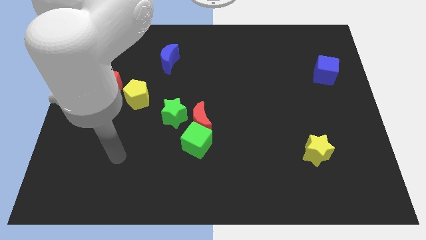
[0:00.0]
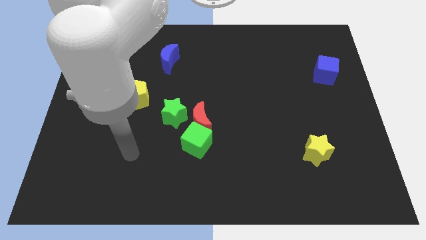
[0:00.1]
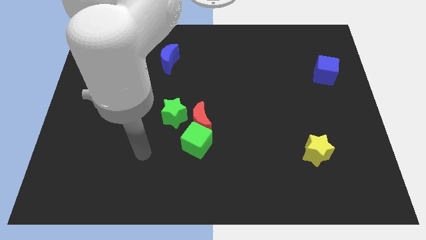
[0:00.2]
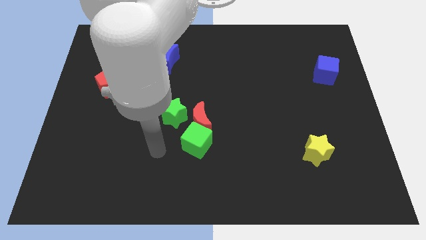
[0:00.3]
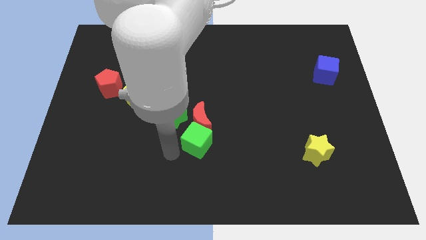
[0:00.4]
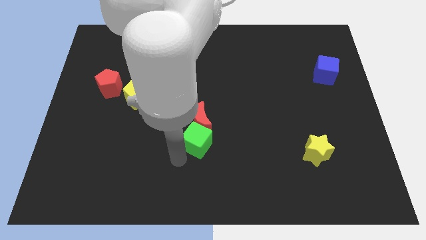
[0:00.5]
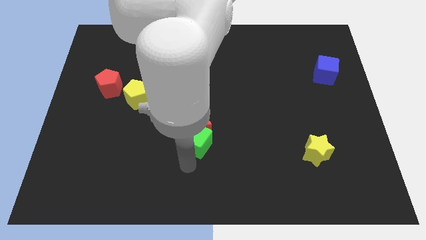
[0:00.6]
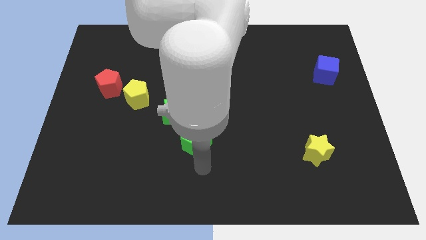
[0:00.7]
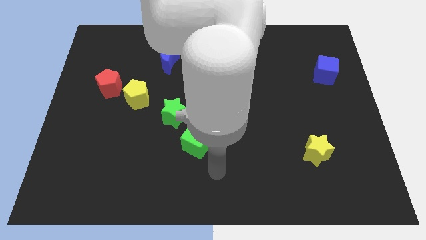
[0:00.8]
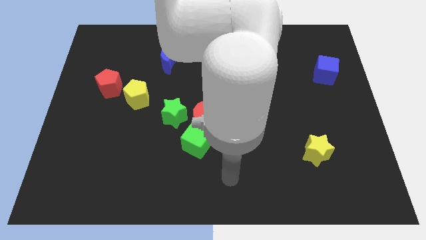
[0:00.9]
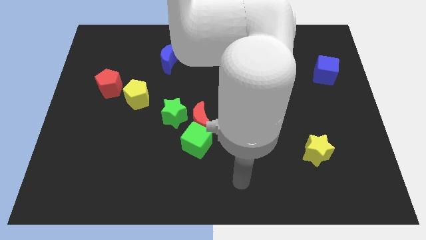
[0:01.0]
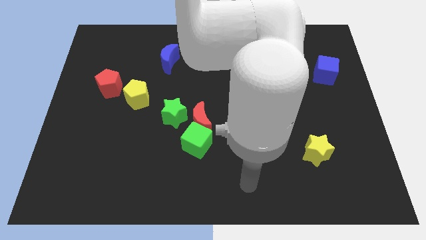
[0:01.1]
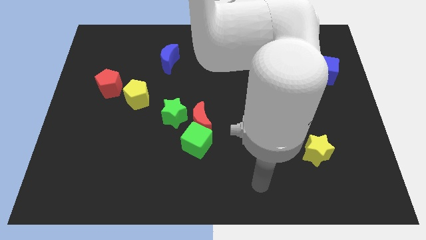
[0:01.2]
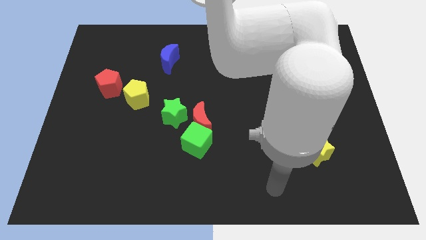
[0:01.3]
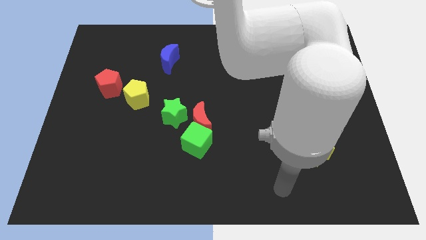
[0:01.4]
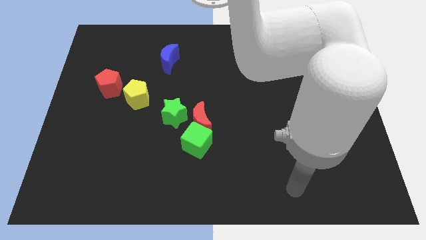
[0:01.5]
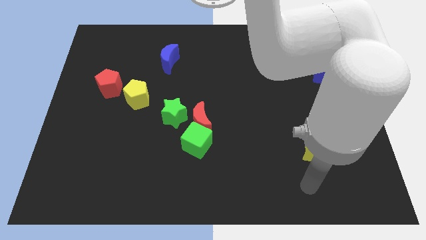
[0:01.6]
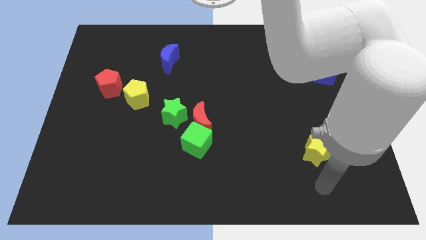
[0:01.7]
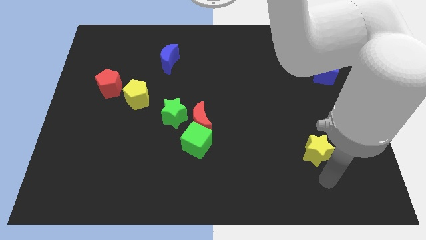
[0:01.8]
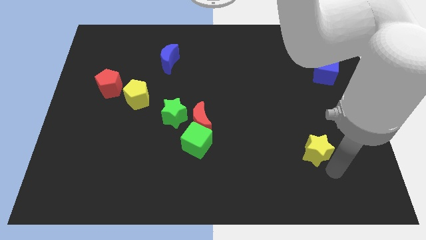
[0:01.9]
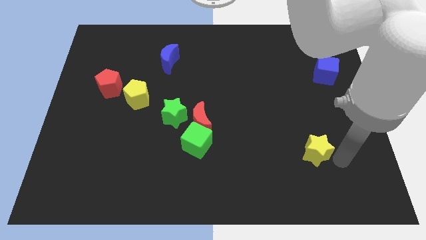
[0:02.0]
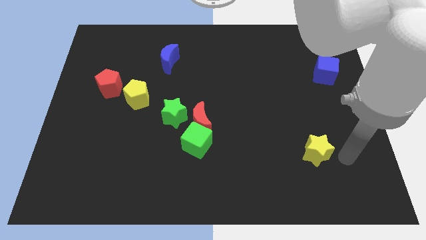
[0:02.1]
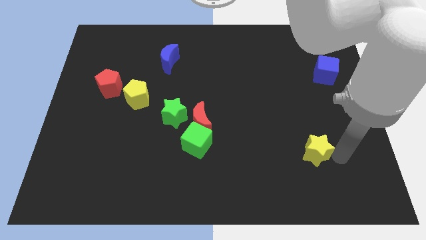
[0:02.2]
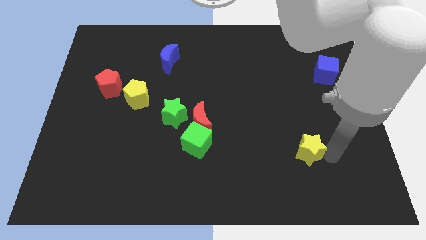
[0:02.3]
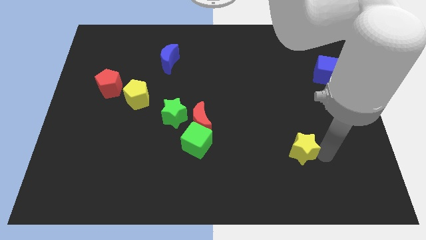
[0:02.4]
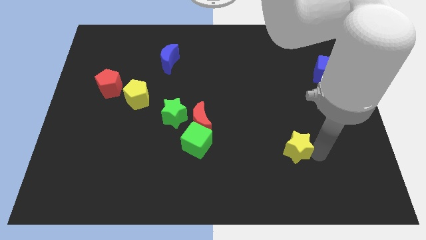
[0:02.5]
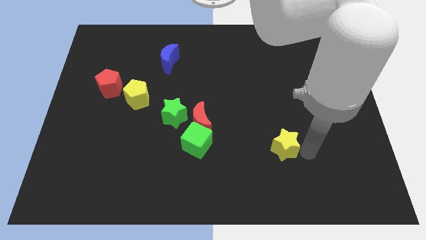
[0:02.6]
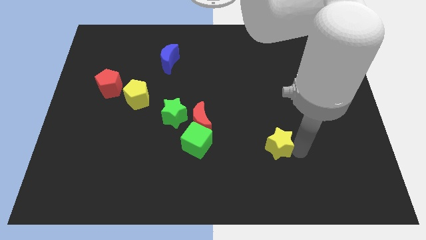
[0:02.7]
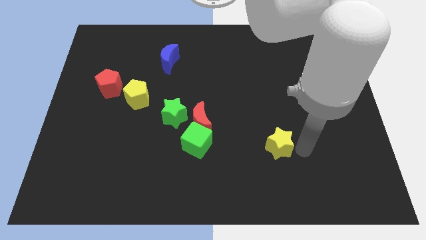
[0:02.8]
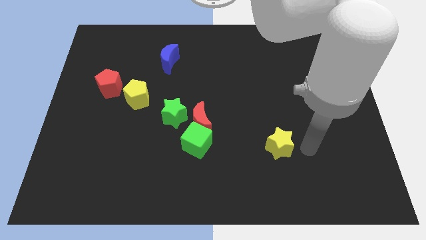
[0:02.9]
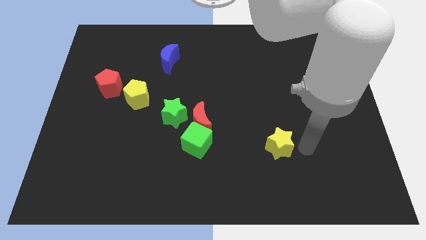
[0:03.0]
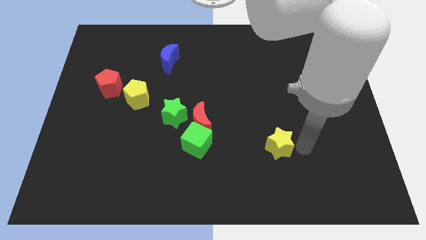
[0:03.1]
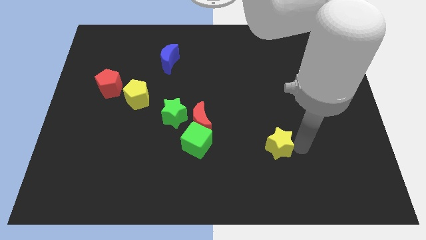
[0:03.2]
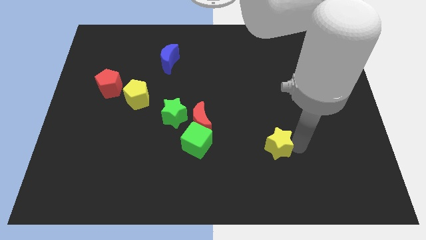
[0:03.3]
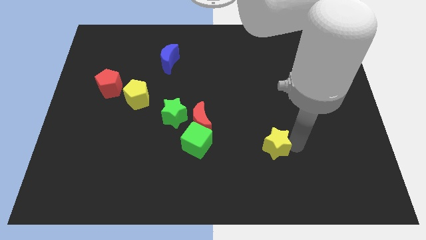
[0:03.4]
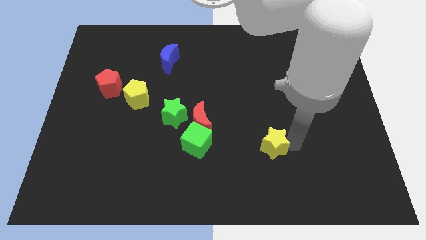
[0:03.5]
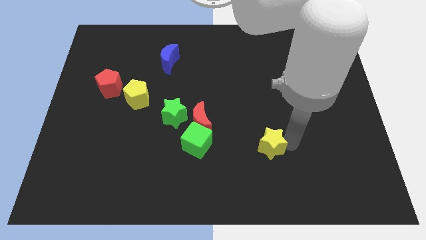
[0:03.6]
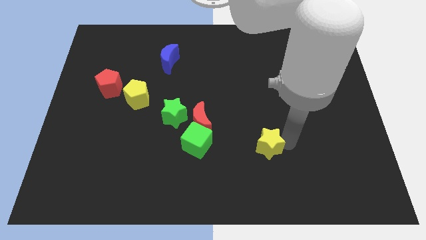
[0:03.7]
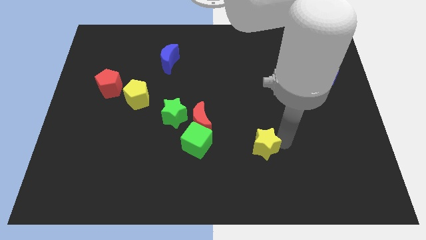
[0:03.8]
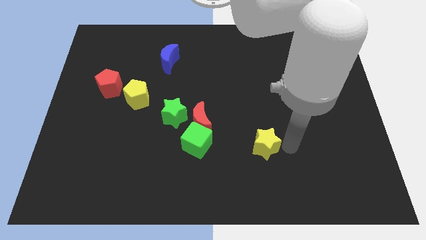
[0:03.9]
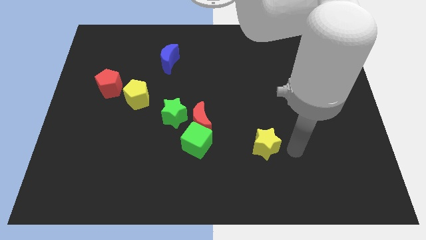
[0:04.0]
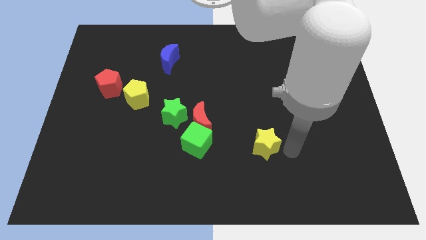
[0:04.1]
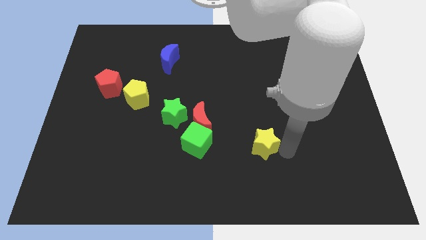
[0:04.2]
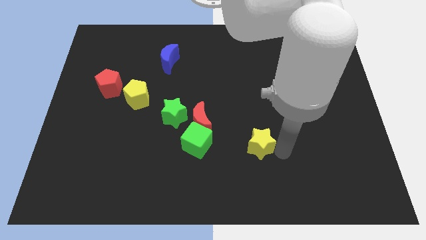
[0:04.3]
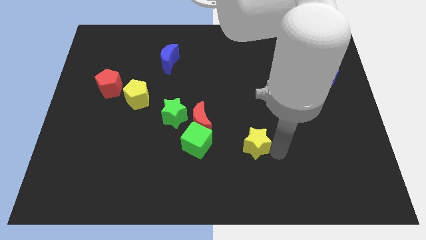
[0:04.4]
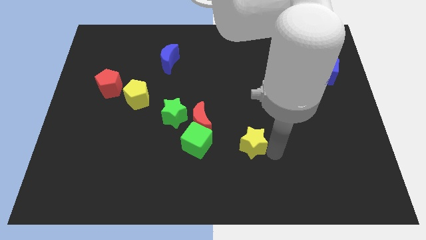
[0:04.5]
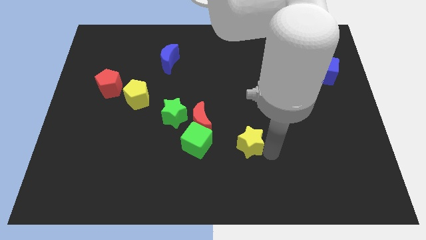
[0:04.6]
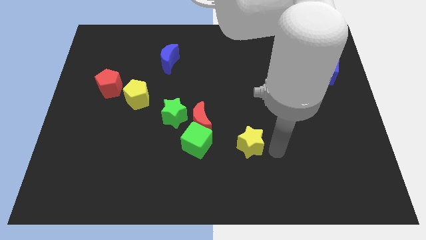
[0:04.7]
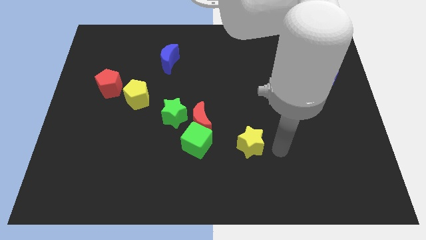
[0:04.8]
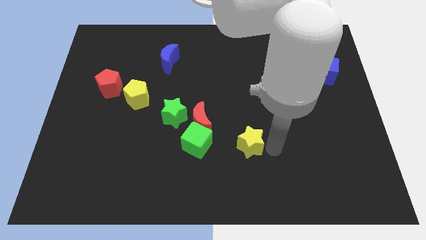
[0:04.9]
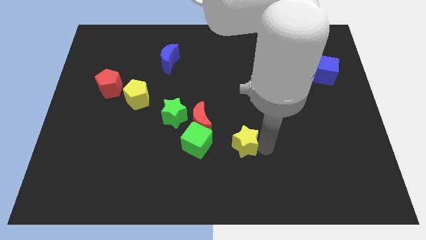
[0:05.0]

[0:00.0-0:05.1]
move the yellow star to the bottom right of the red moon

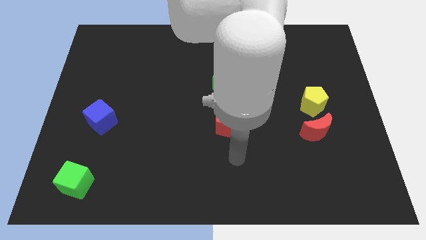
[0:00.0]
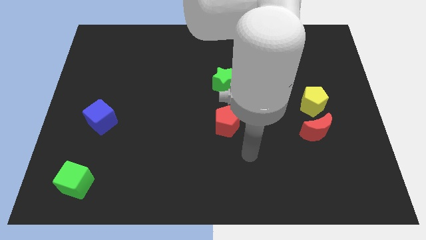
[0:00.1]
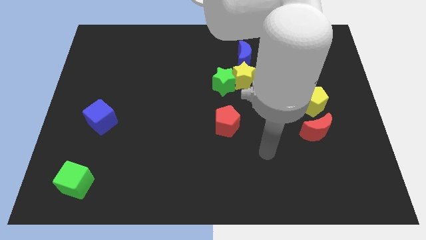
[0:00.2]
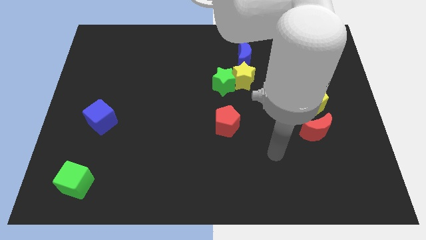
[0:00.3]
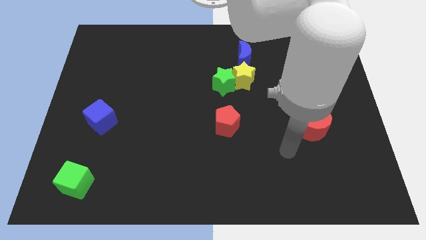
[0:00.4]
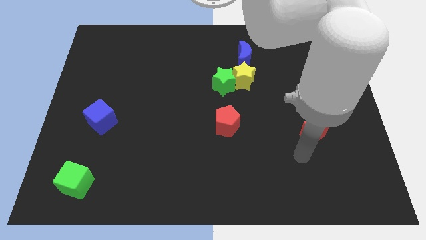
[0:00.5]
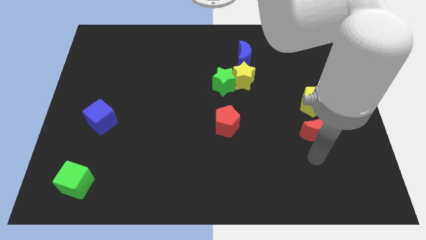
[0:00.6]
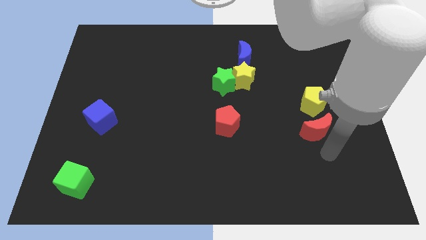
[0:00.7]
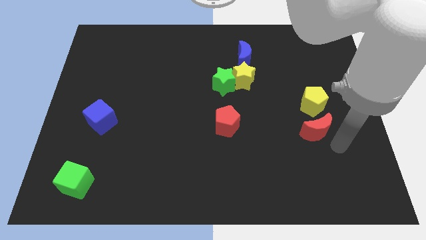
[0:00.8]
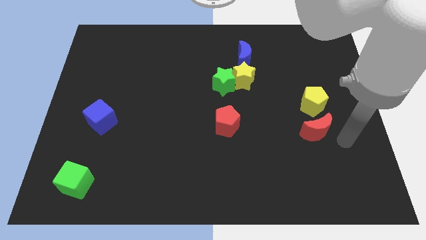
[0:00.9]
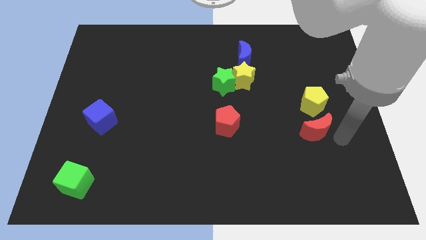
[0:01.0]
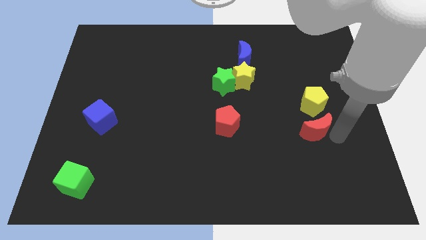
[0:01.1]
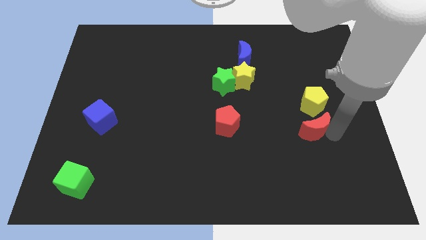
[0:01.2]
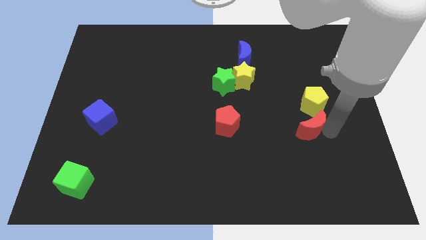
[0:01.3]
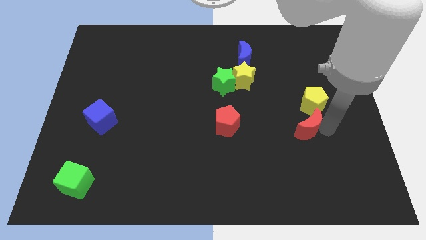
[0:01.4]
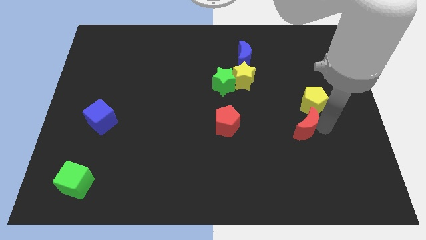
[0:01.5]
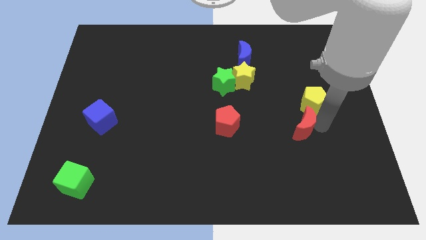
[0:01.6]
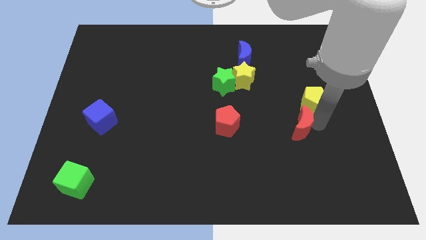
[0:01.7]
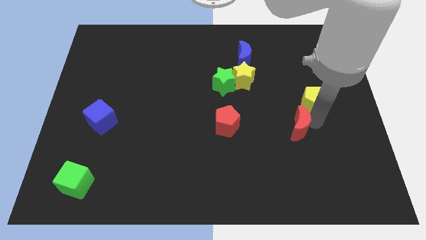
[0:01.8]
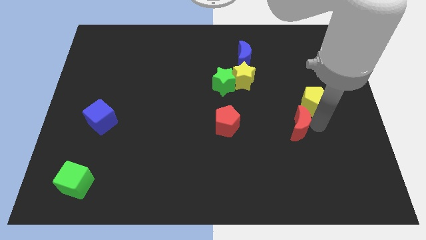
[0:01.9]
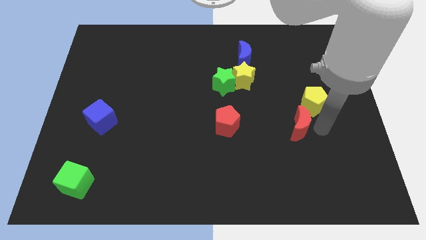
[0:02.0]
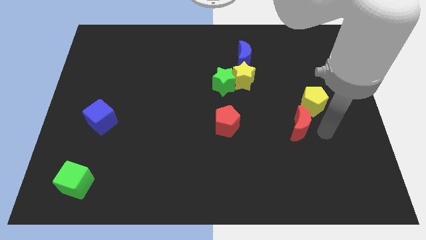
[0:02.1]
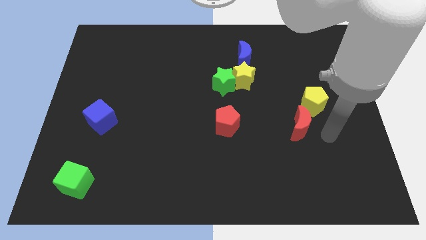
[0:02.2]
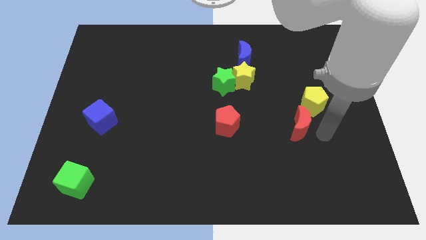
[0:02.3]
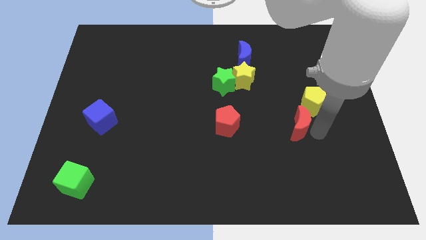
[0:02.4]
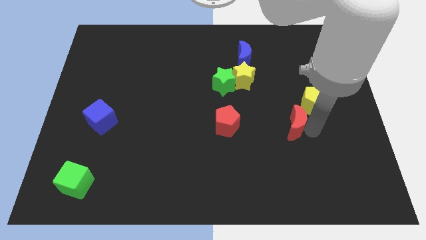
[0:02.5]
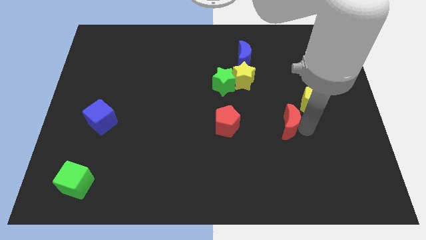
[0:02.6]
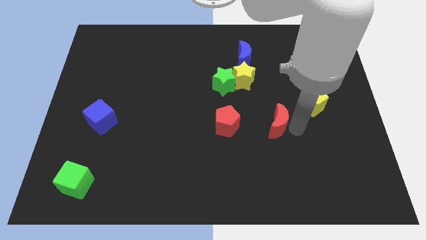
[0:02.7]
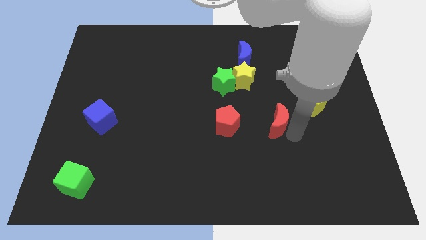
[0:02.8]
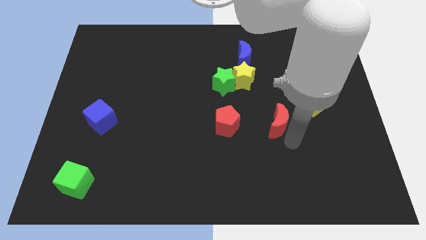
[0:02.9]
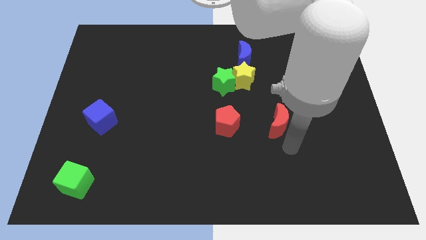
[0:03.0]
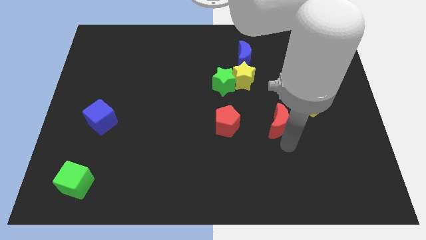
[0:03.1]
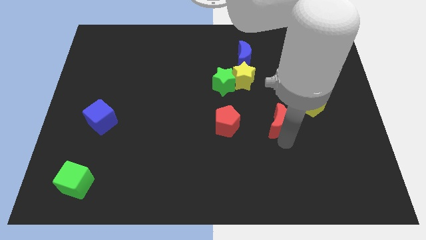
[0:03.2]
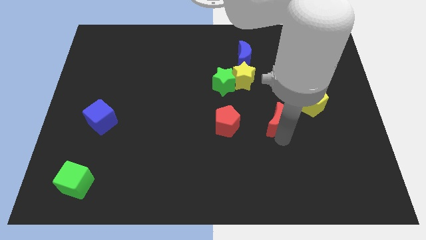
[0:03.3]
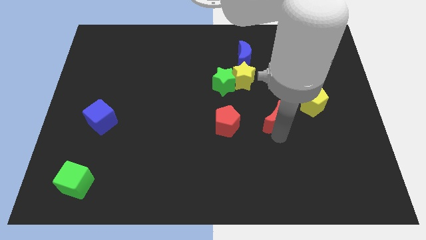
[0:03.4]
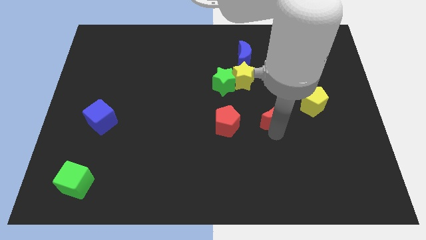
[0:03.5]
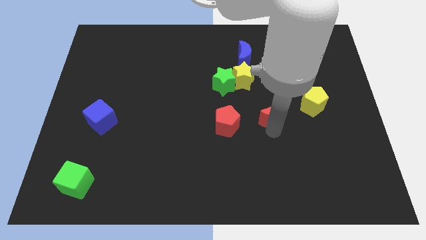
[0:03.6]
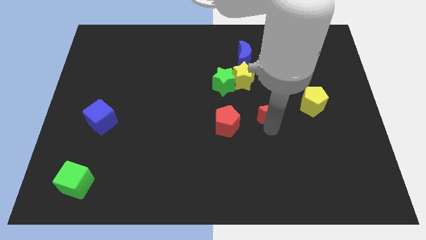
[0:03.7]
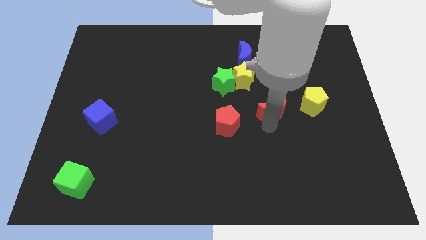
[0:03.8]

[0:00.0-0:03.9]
move the red moon to the bottom right of the yellow star
